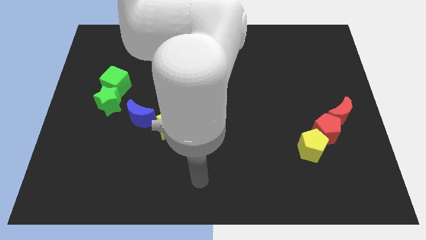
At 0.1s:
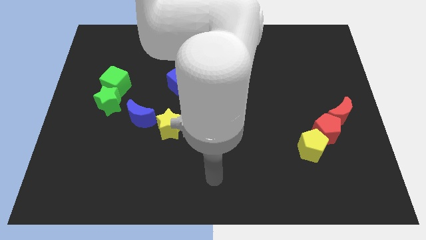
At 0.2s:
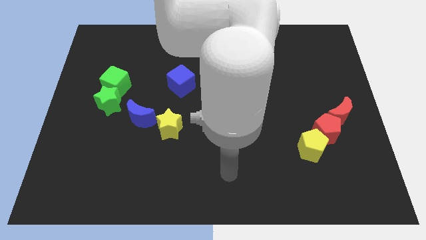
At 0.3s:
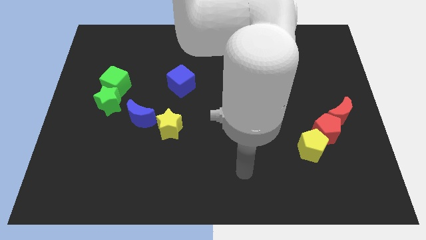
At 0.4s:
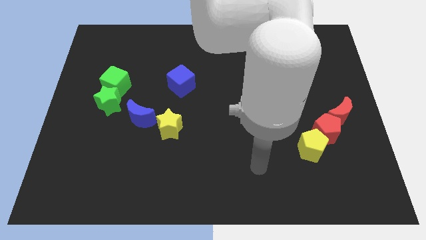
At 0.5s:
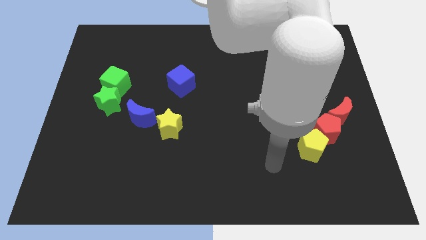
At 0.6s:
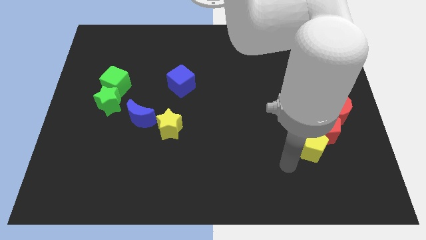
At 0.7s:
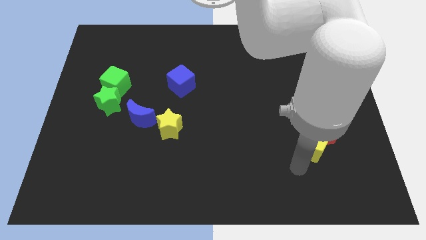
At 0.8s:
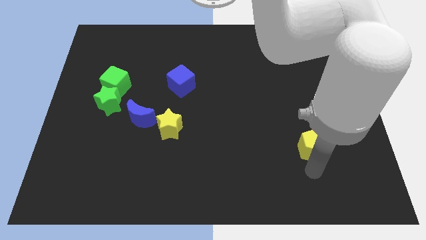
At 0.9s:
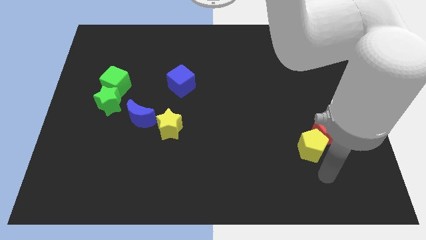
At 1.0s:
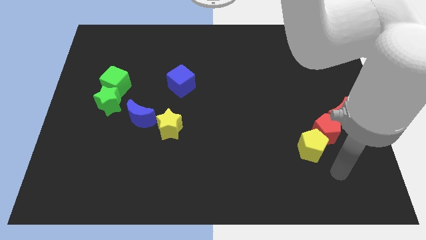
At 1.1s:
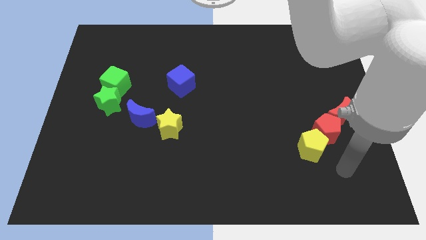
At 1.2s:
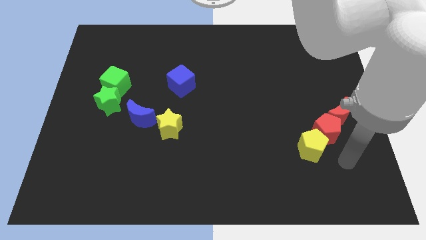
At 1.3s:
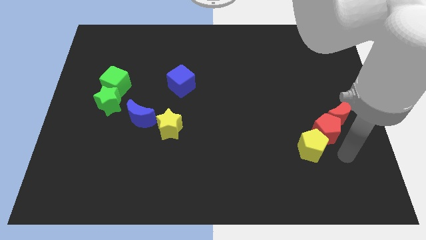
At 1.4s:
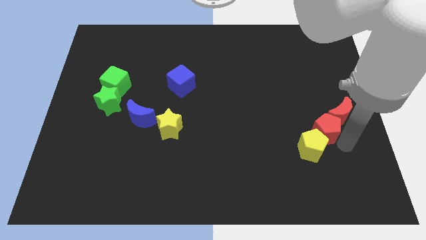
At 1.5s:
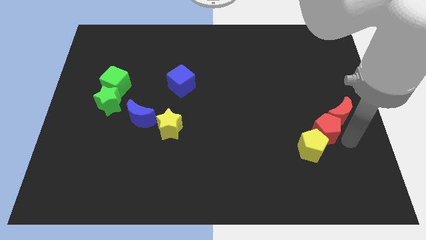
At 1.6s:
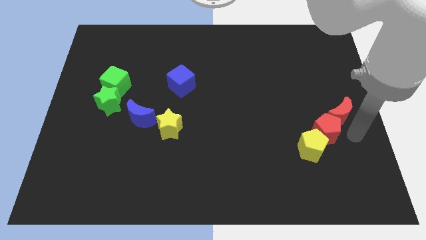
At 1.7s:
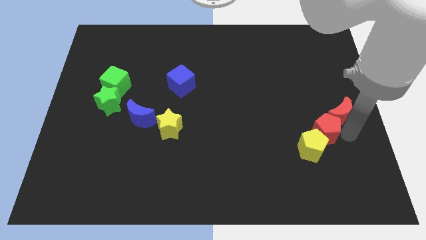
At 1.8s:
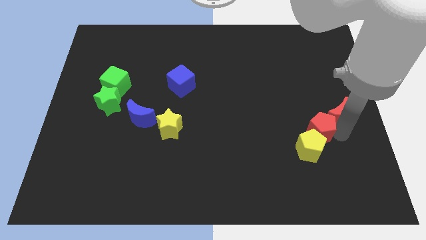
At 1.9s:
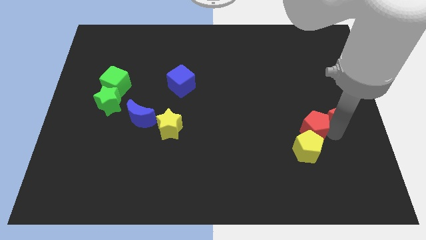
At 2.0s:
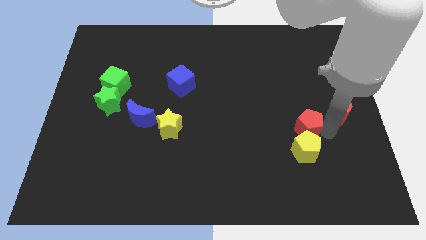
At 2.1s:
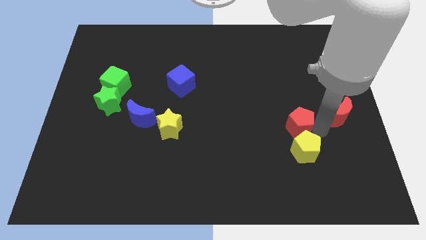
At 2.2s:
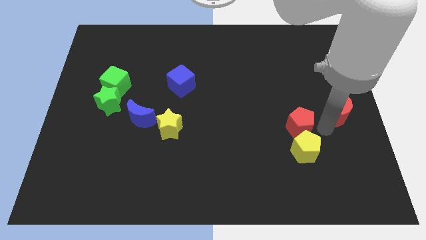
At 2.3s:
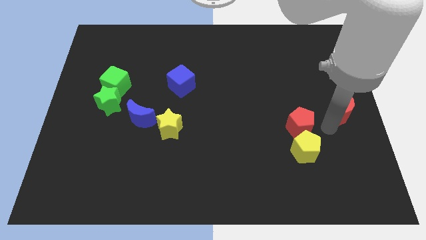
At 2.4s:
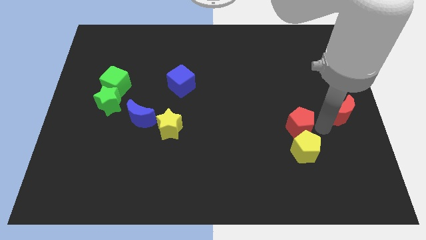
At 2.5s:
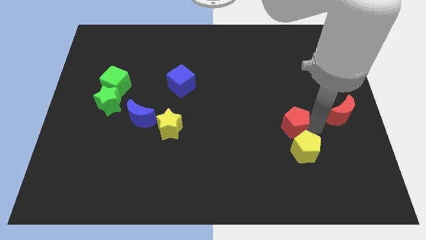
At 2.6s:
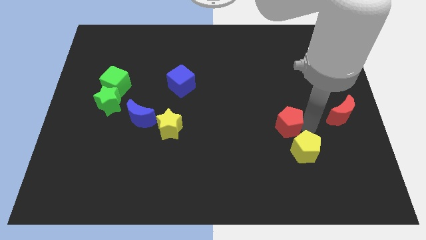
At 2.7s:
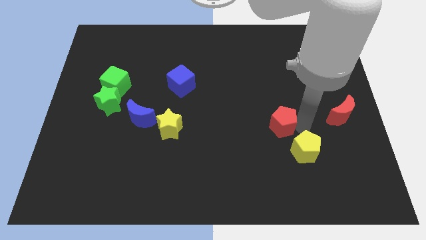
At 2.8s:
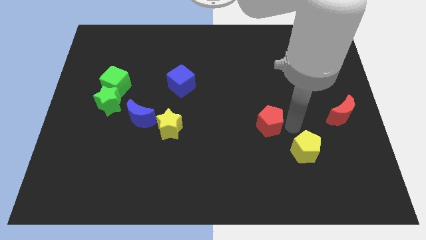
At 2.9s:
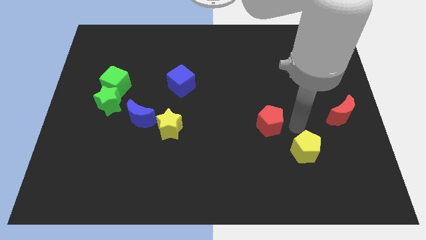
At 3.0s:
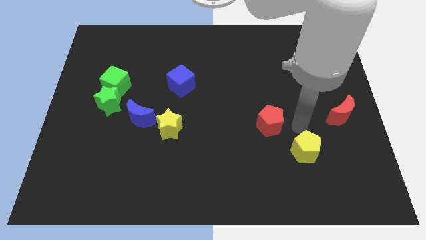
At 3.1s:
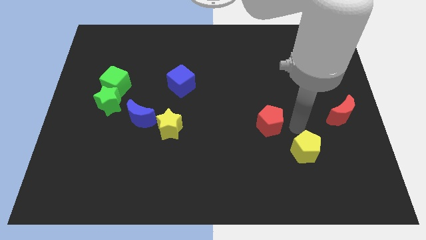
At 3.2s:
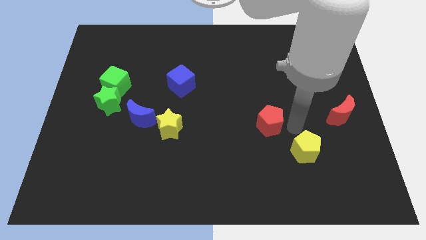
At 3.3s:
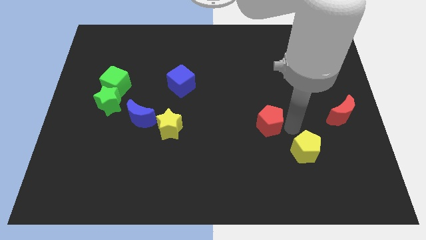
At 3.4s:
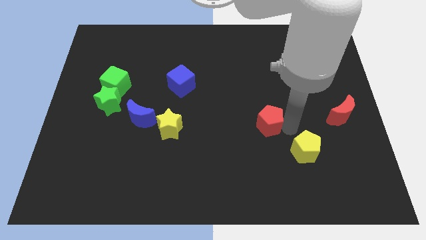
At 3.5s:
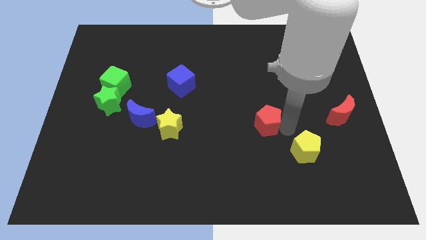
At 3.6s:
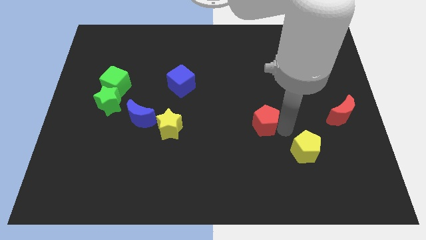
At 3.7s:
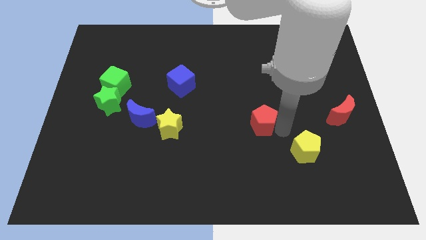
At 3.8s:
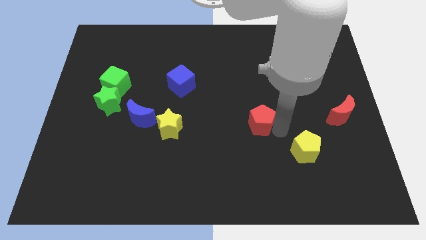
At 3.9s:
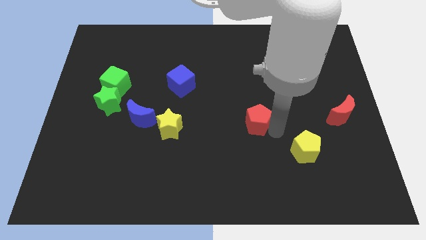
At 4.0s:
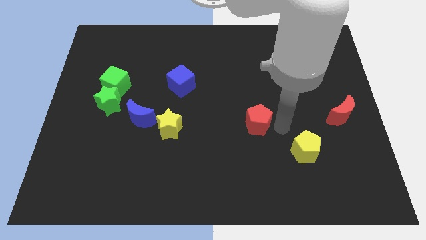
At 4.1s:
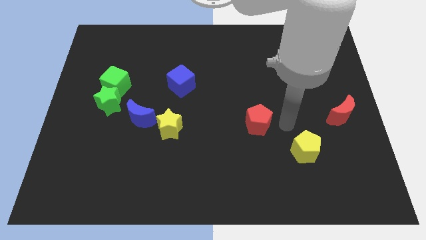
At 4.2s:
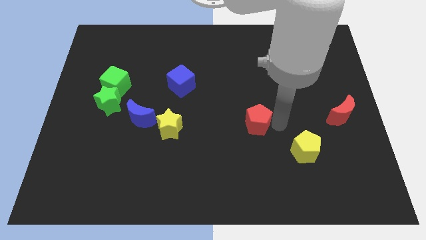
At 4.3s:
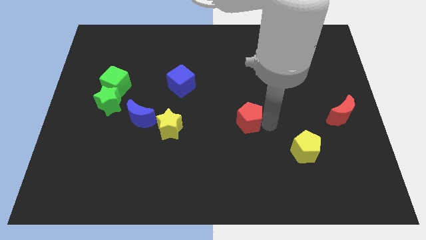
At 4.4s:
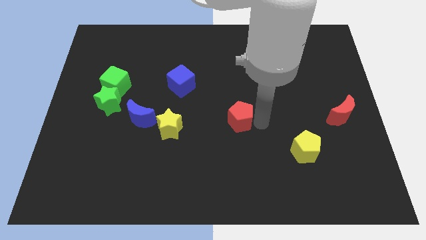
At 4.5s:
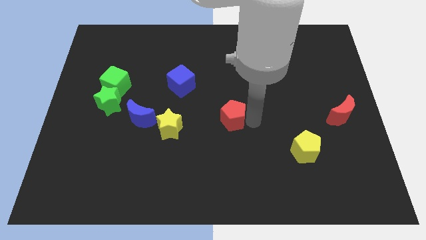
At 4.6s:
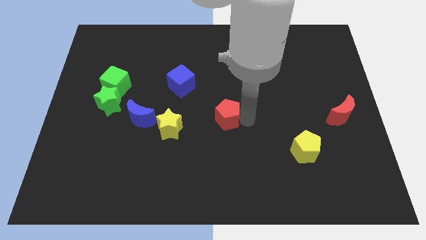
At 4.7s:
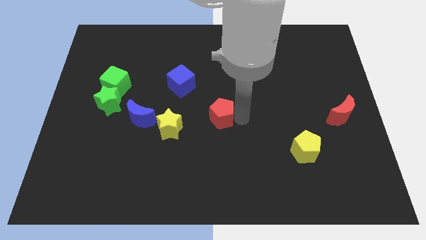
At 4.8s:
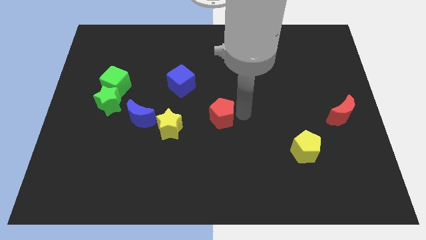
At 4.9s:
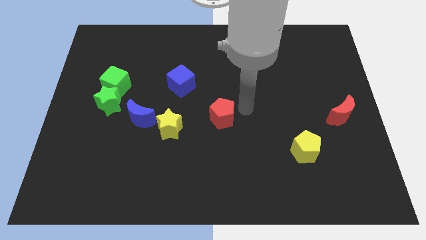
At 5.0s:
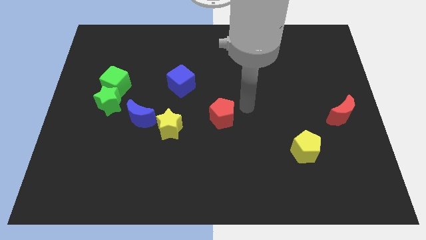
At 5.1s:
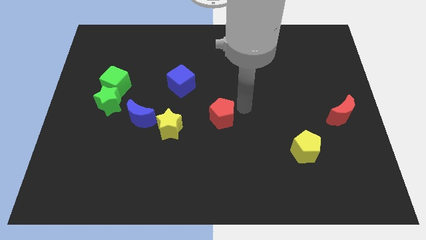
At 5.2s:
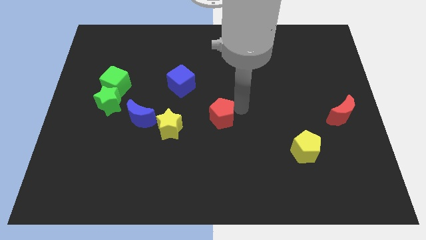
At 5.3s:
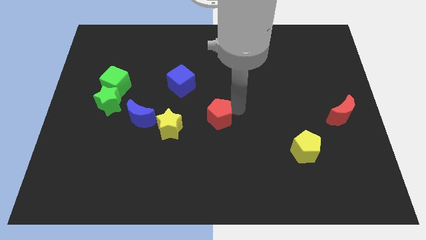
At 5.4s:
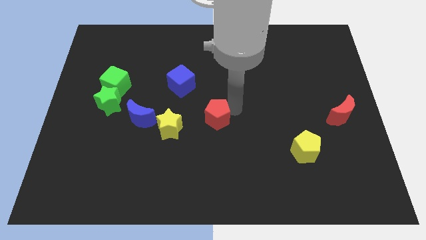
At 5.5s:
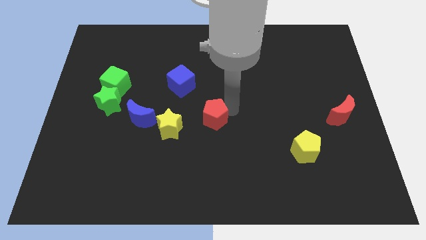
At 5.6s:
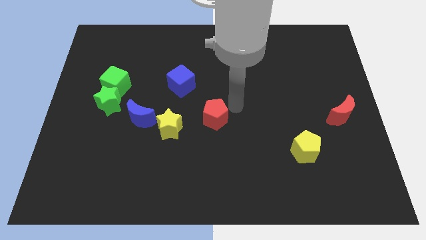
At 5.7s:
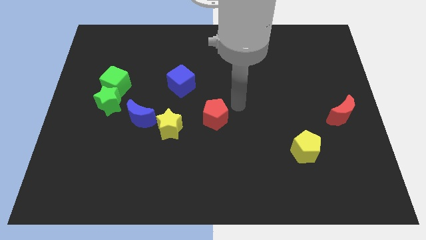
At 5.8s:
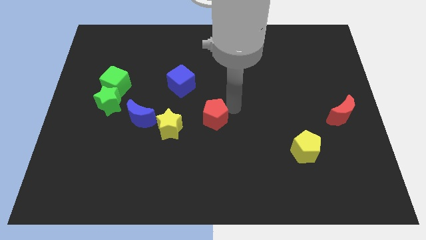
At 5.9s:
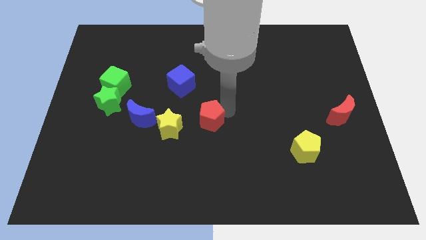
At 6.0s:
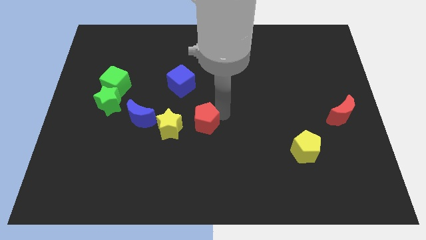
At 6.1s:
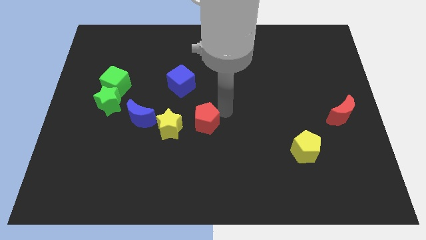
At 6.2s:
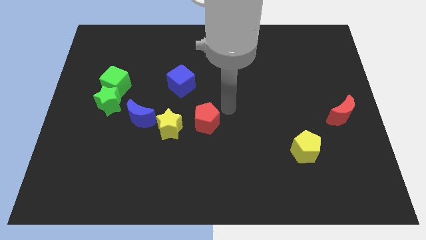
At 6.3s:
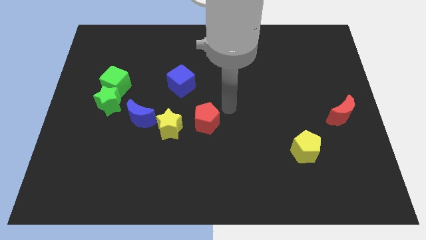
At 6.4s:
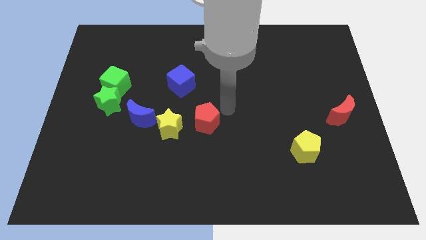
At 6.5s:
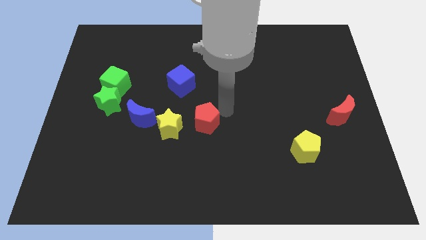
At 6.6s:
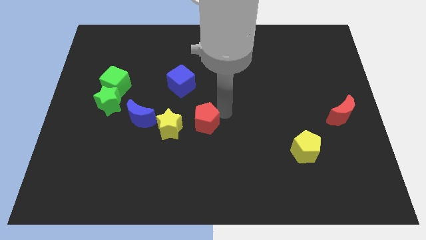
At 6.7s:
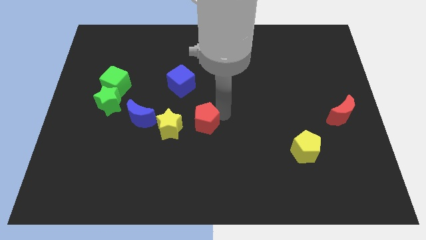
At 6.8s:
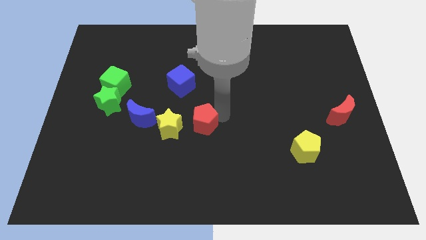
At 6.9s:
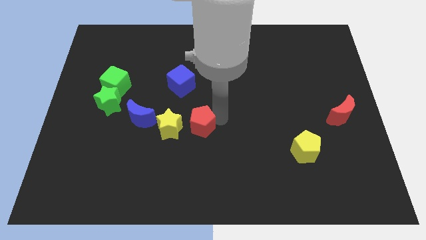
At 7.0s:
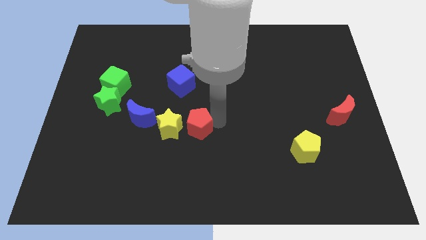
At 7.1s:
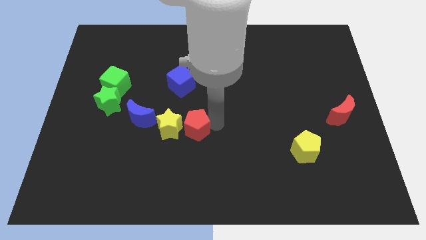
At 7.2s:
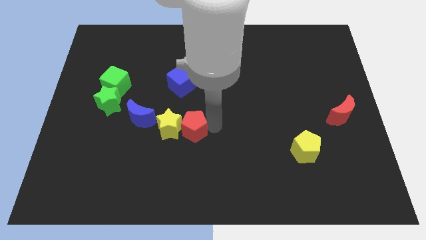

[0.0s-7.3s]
push the red pentagon towards the yellow star
